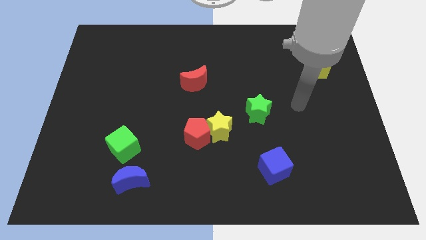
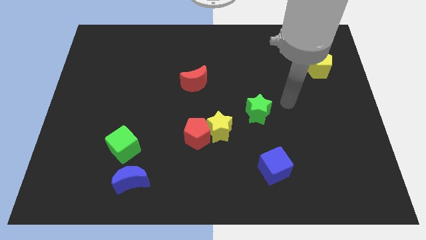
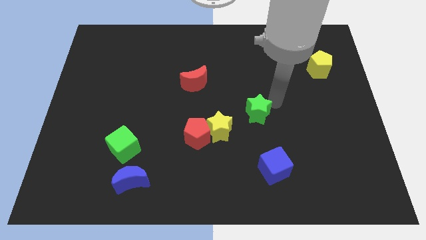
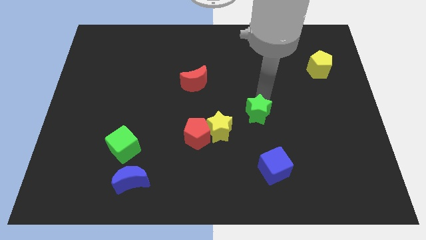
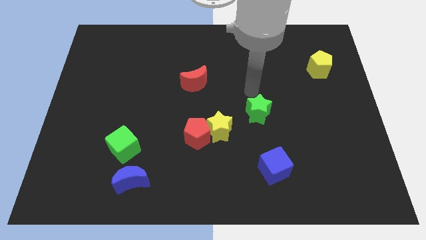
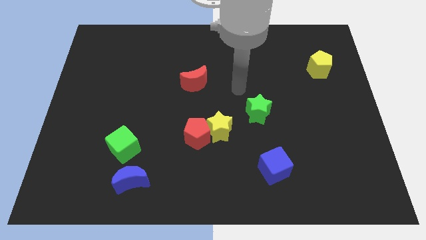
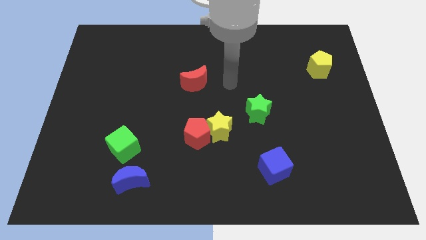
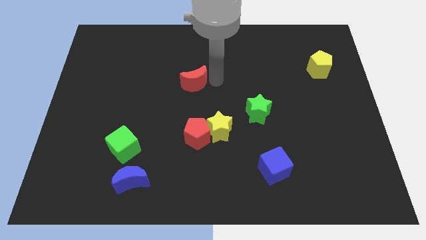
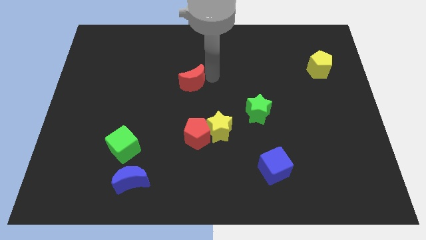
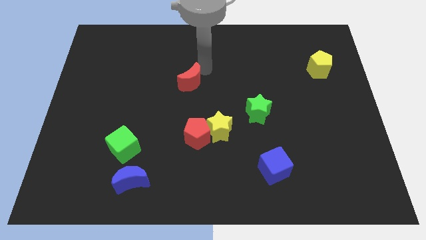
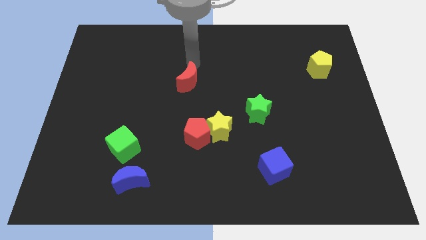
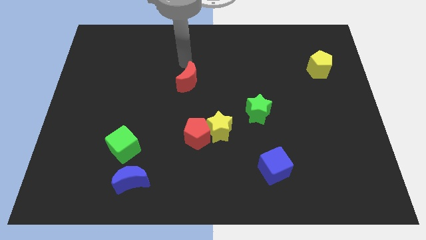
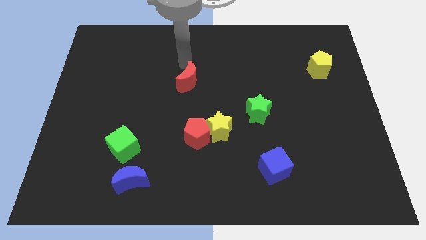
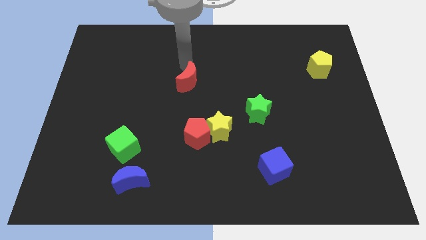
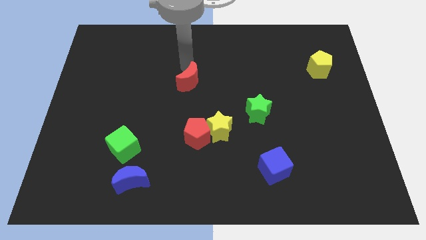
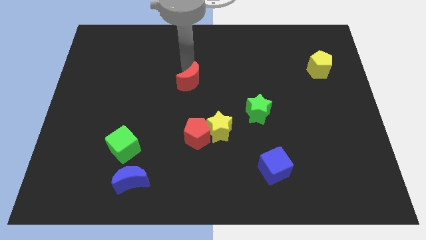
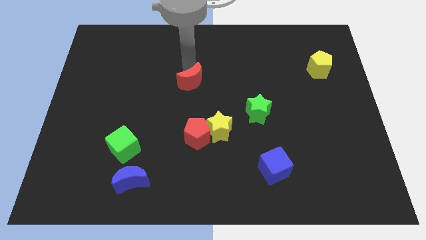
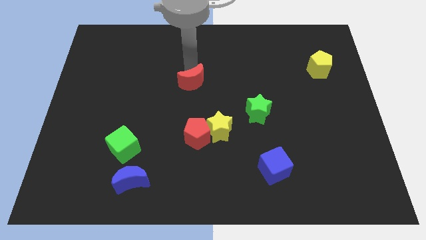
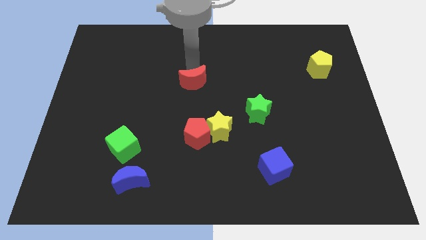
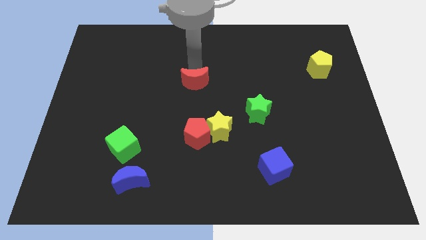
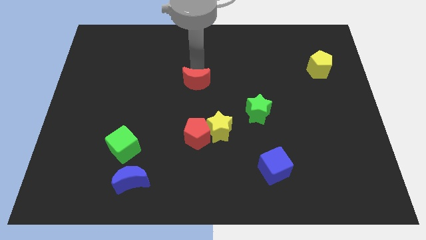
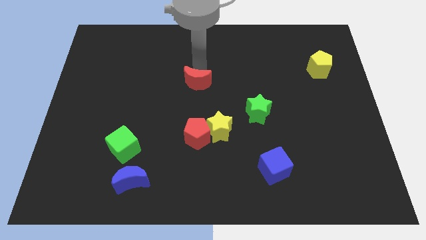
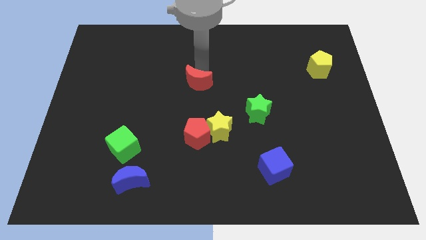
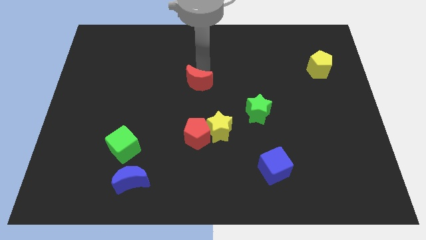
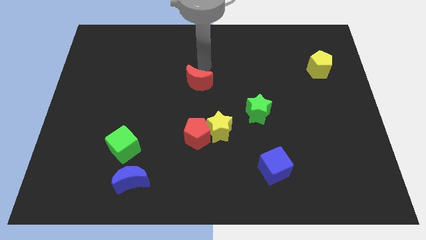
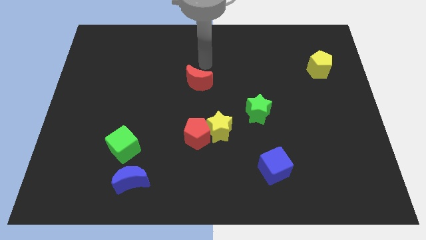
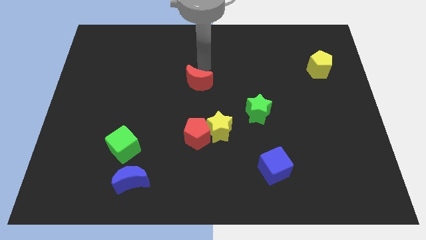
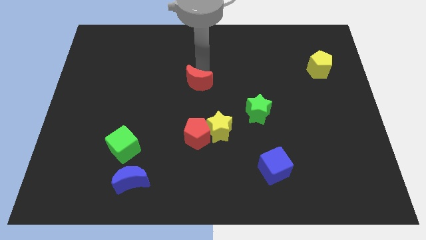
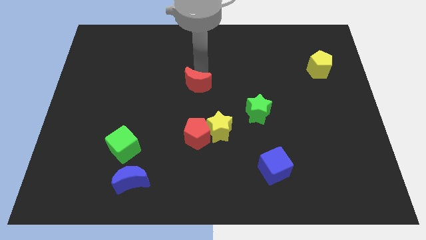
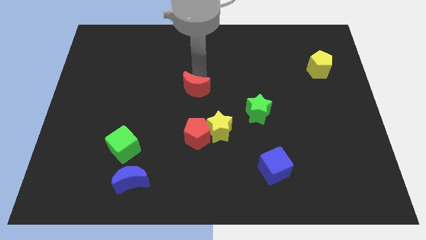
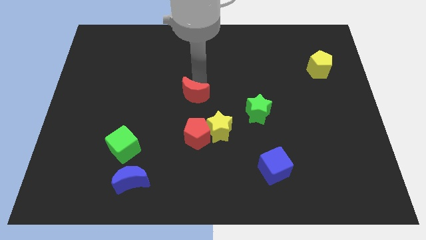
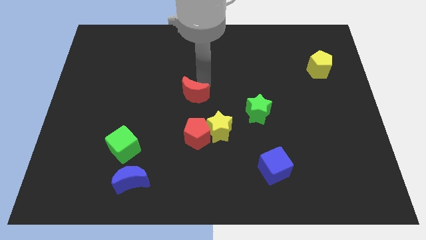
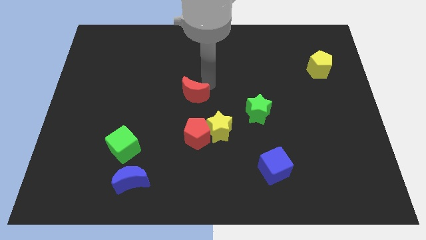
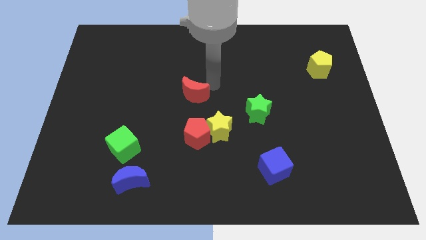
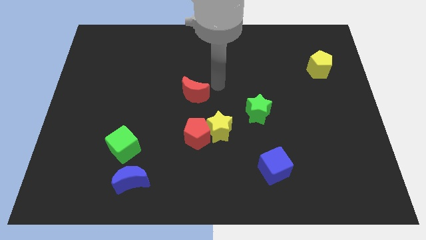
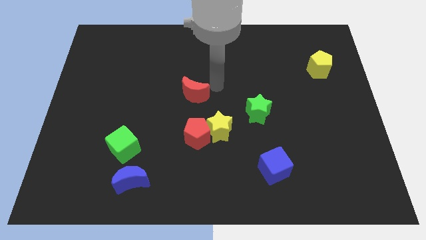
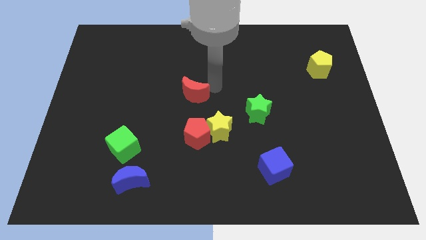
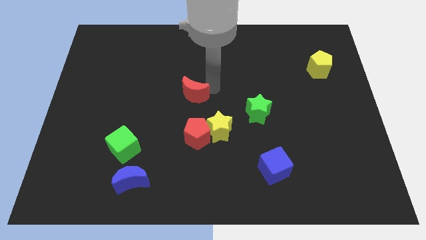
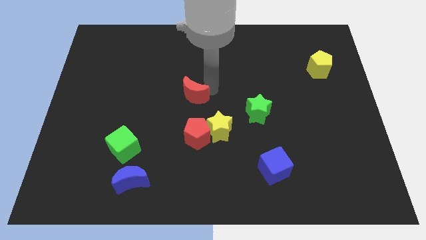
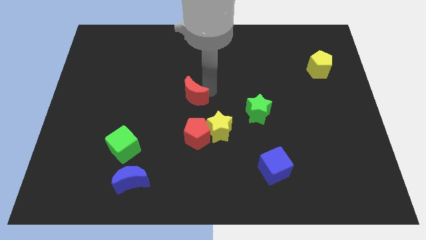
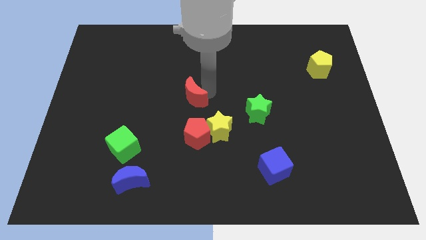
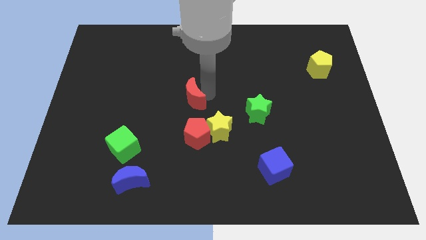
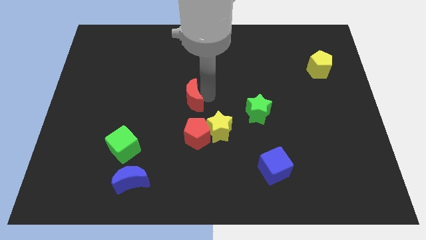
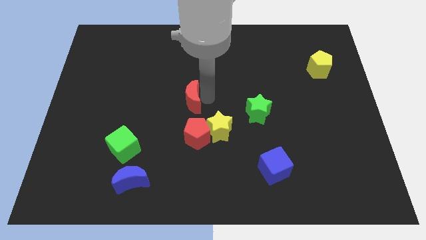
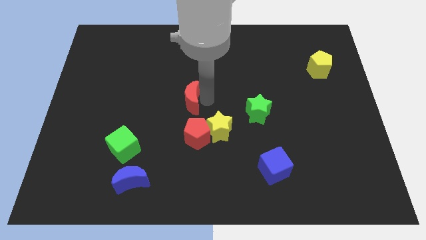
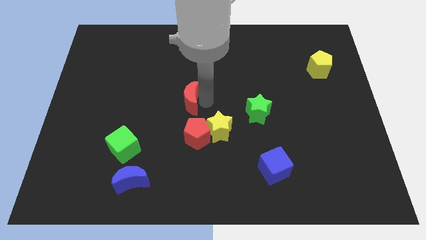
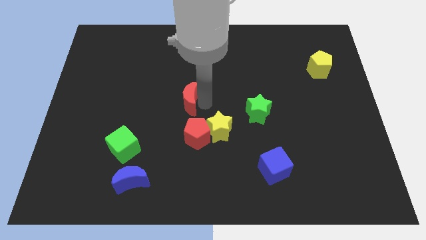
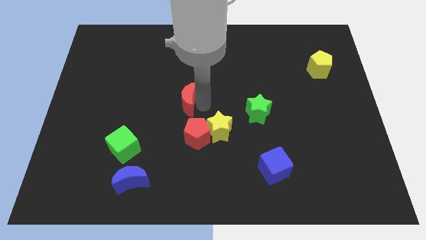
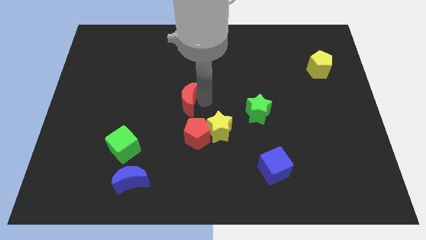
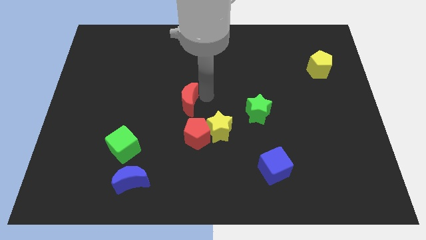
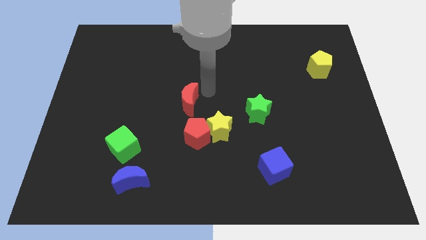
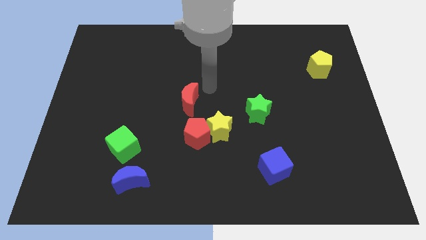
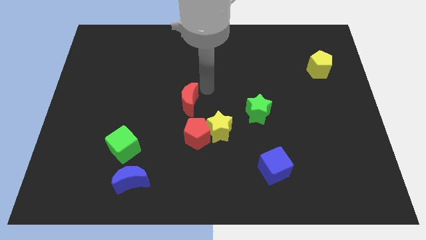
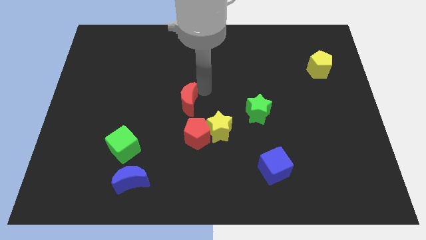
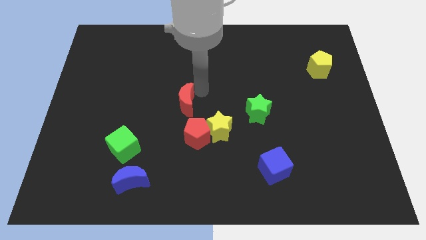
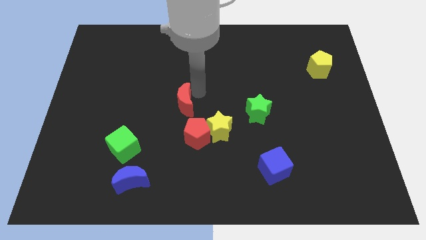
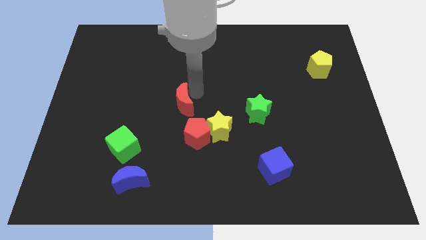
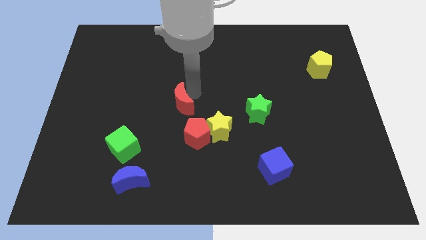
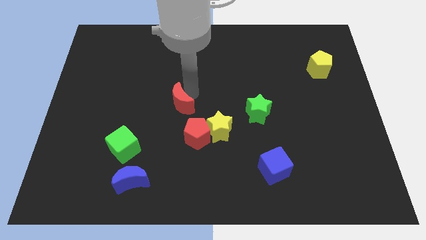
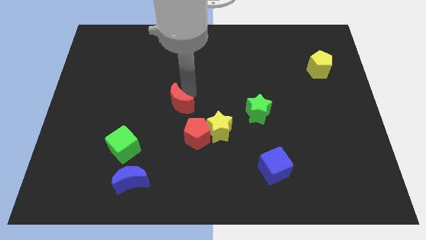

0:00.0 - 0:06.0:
move the red moon down and left diagonally a little

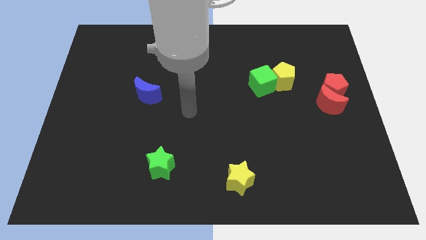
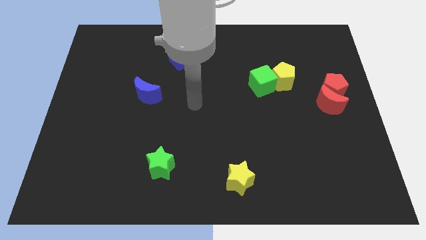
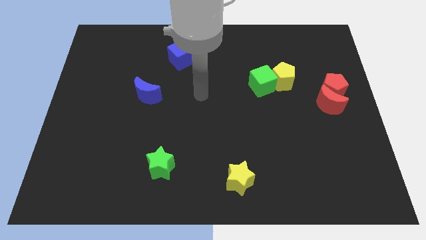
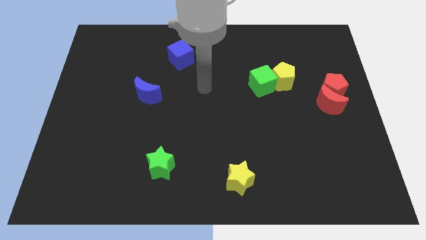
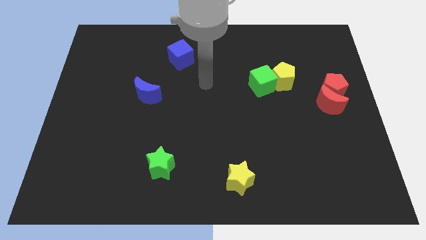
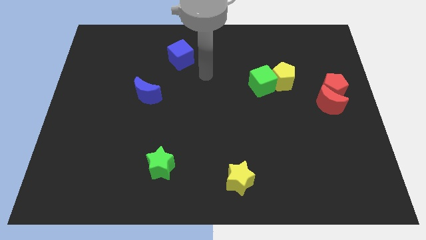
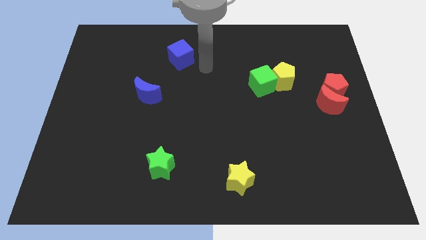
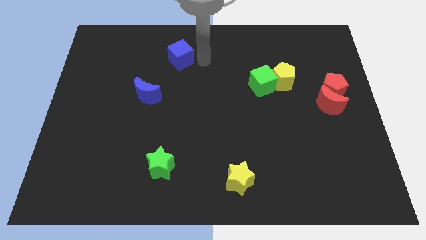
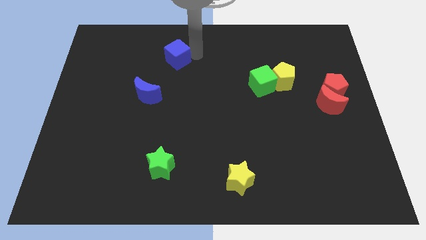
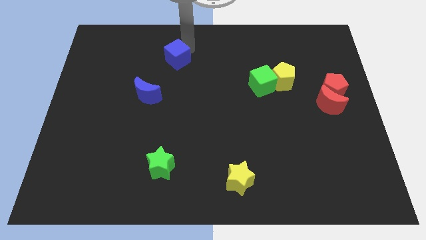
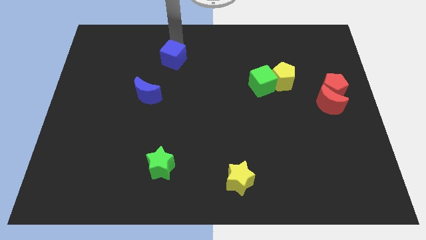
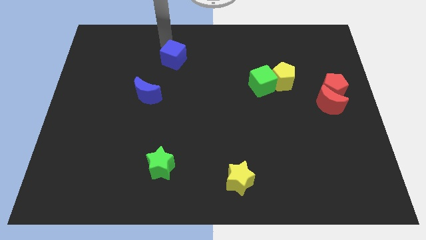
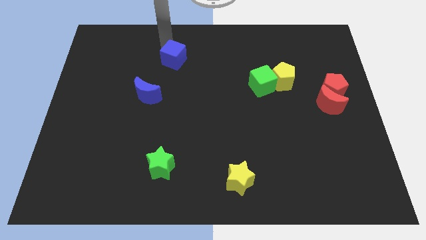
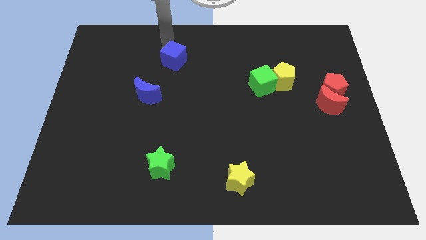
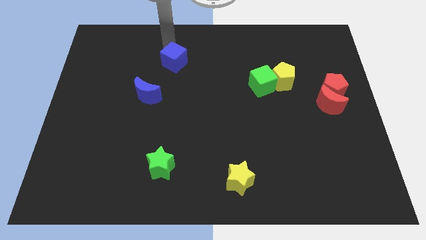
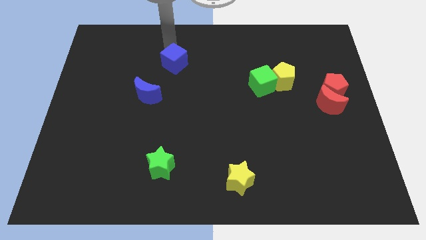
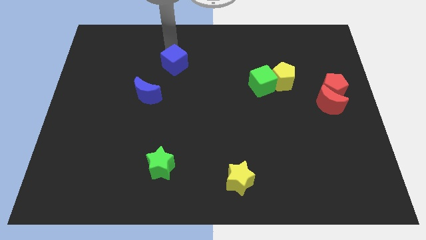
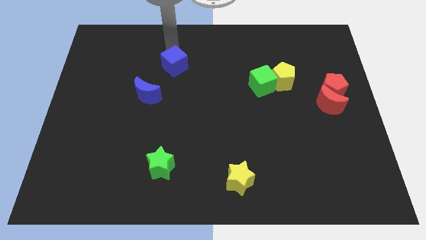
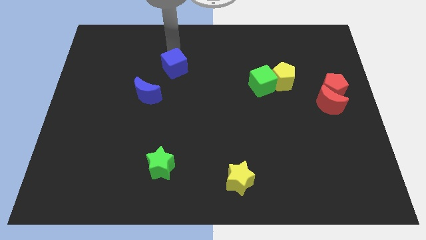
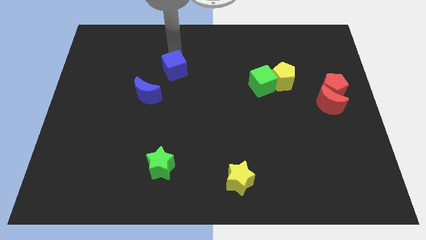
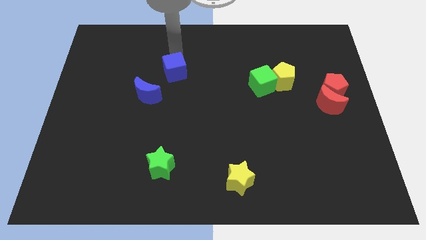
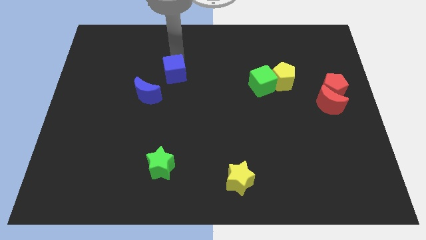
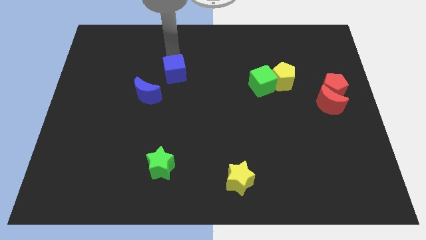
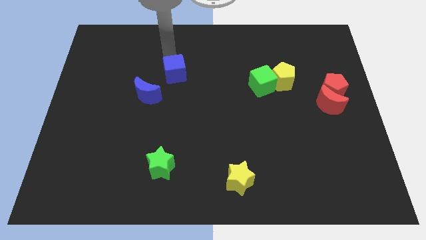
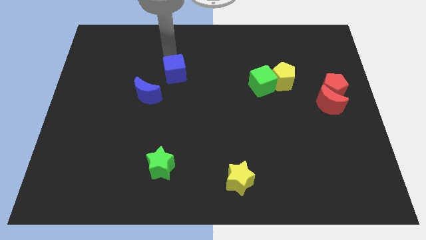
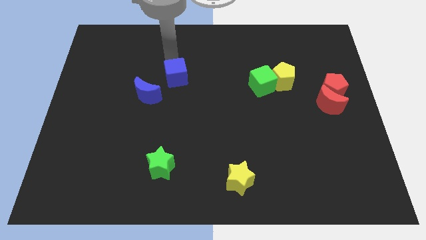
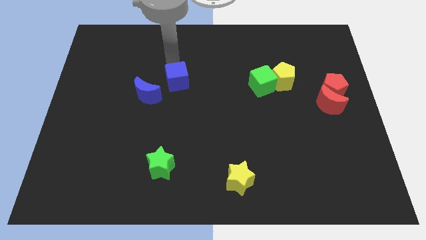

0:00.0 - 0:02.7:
slightly move the blue cube down
